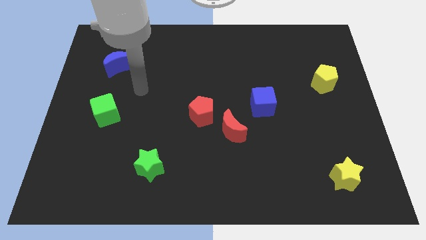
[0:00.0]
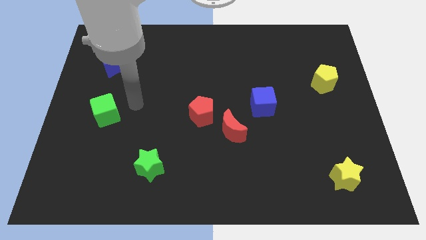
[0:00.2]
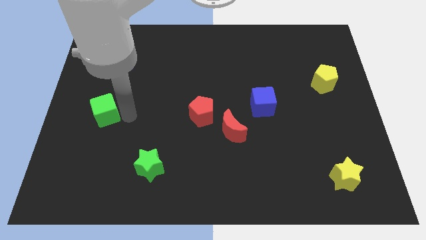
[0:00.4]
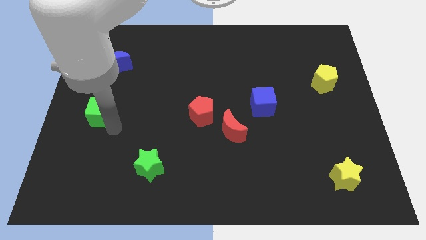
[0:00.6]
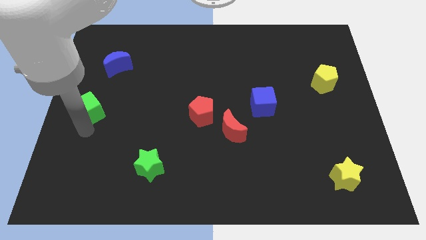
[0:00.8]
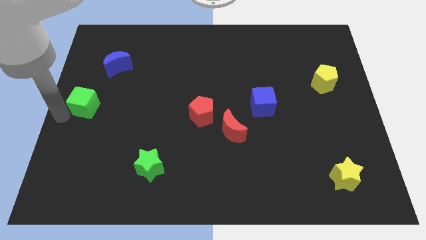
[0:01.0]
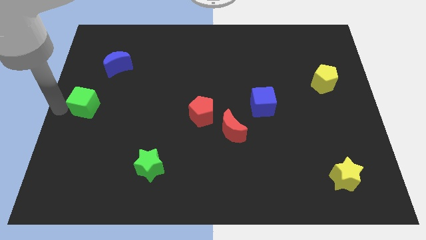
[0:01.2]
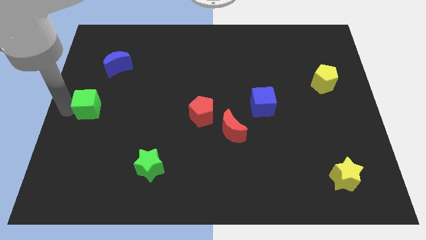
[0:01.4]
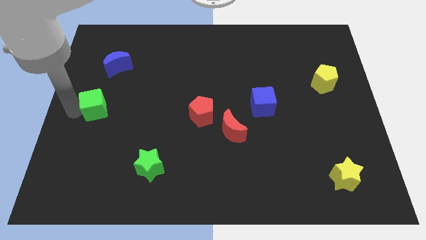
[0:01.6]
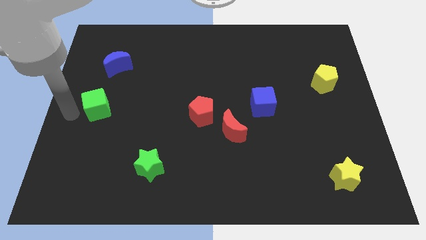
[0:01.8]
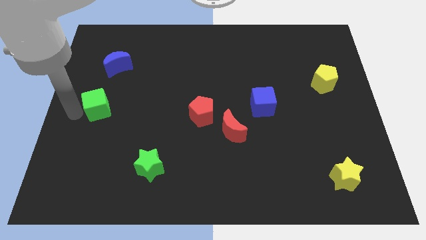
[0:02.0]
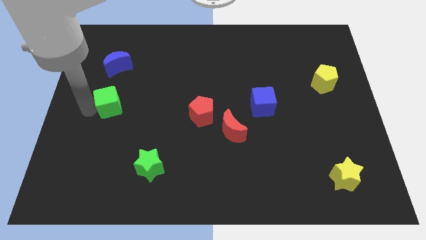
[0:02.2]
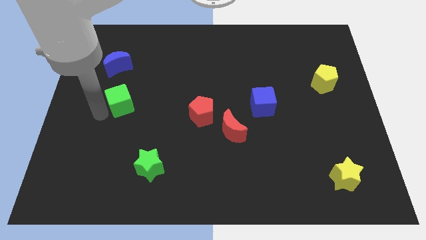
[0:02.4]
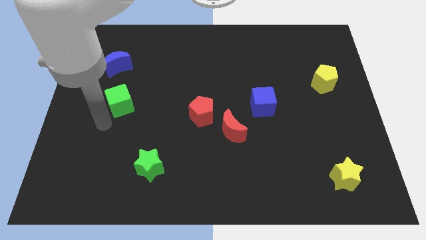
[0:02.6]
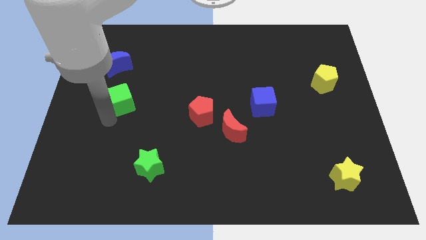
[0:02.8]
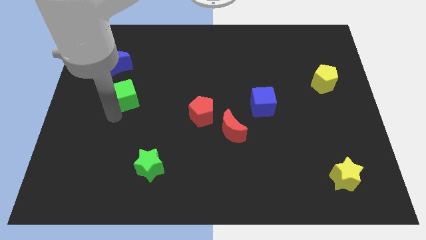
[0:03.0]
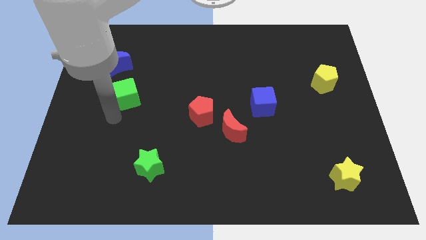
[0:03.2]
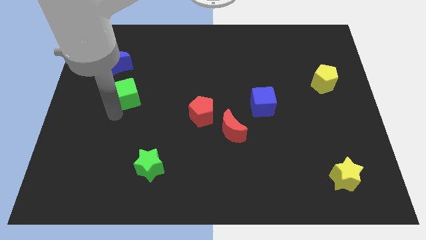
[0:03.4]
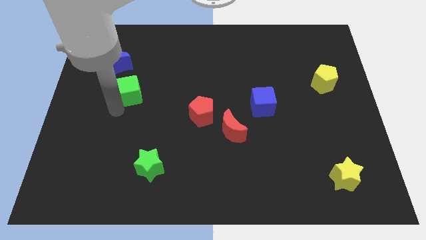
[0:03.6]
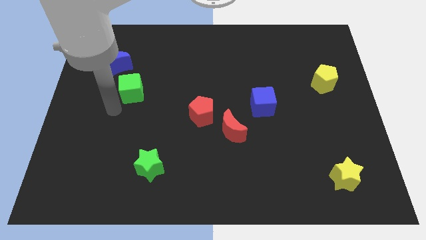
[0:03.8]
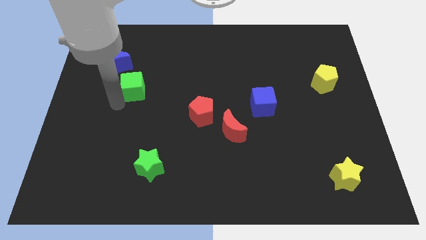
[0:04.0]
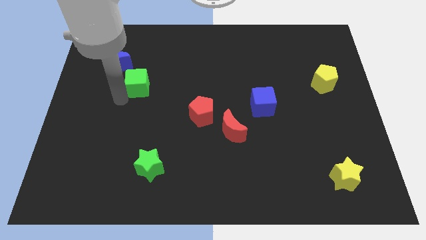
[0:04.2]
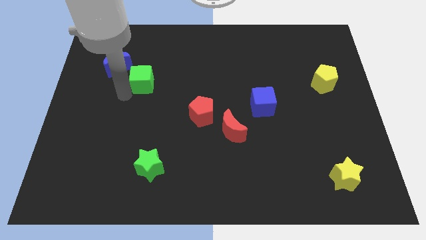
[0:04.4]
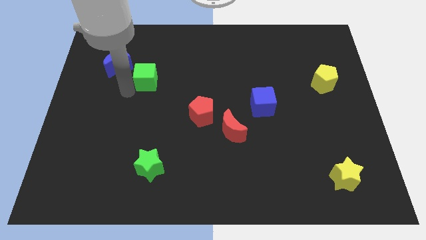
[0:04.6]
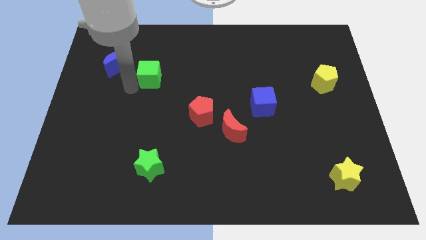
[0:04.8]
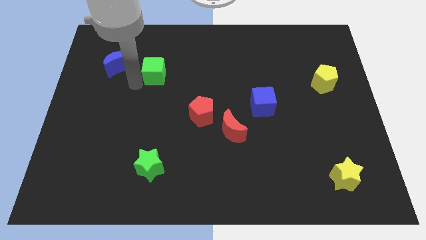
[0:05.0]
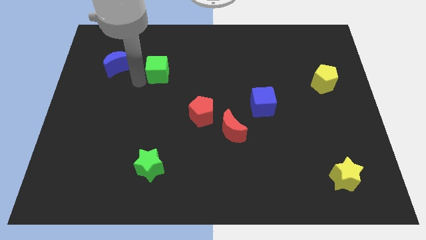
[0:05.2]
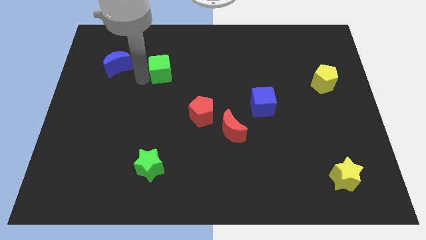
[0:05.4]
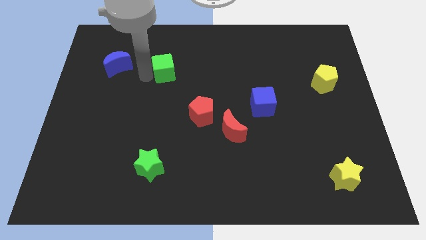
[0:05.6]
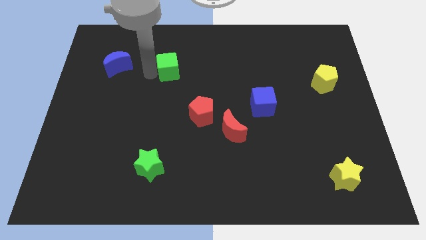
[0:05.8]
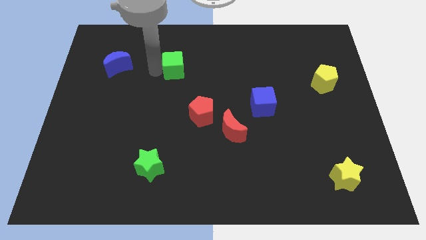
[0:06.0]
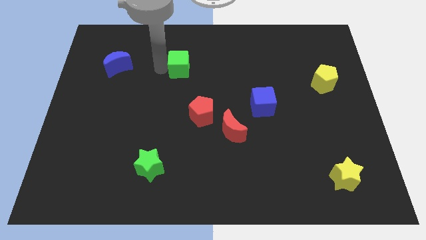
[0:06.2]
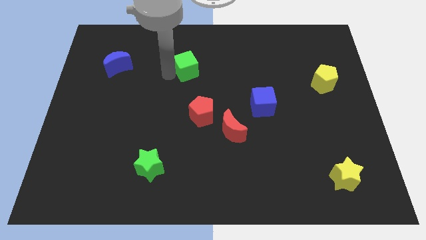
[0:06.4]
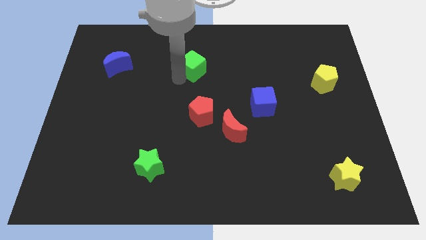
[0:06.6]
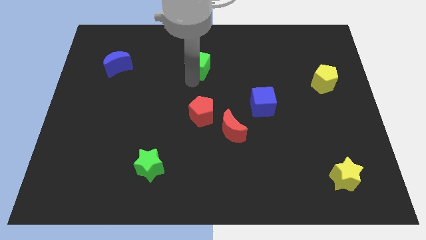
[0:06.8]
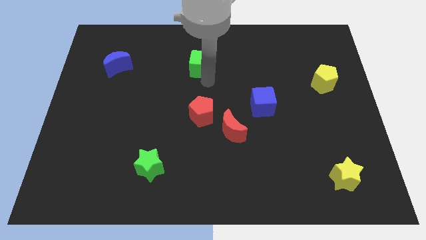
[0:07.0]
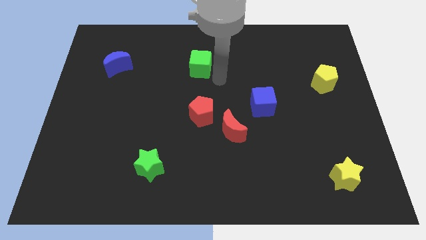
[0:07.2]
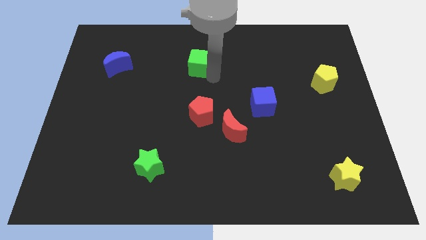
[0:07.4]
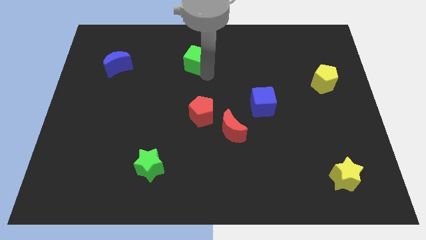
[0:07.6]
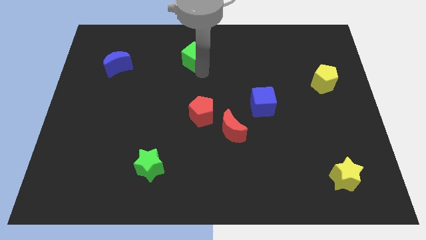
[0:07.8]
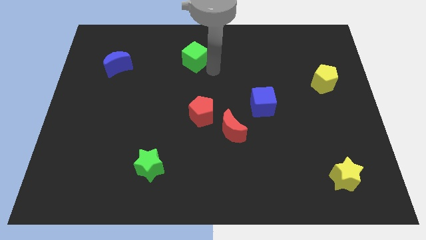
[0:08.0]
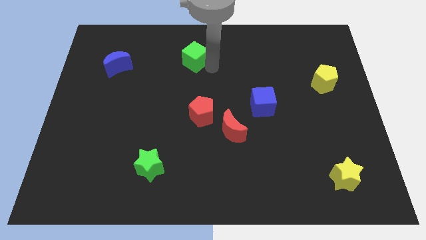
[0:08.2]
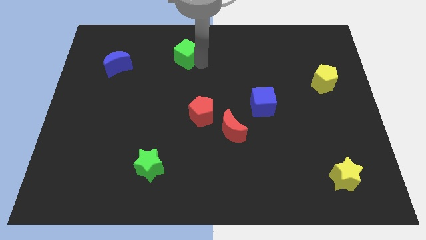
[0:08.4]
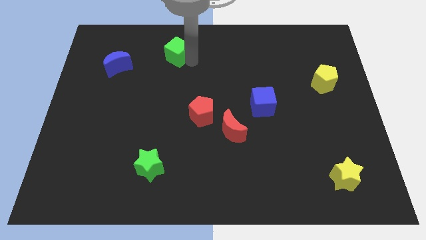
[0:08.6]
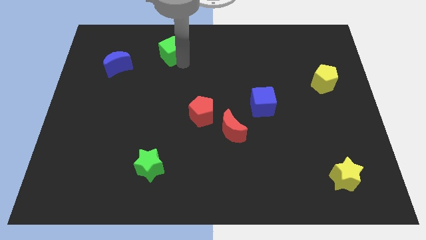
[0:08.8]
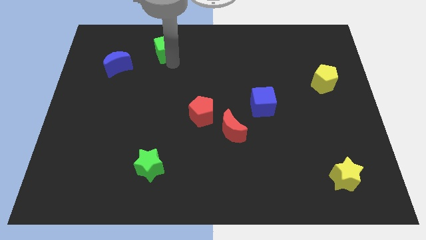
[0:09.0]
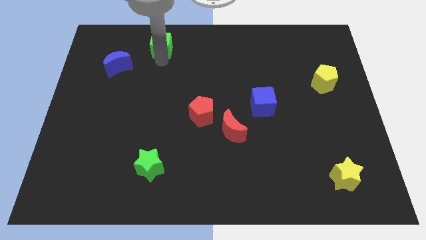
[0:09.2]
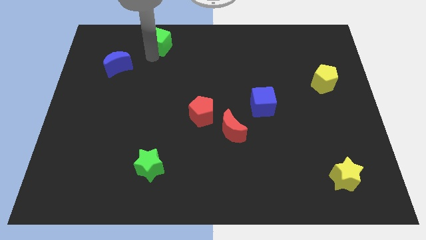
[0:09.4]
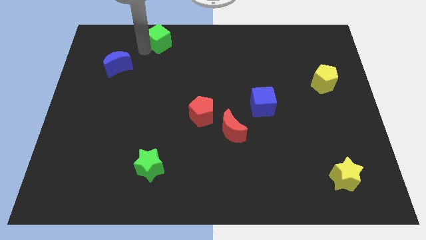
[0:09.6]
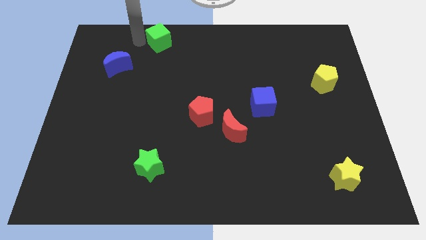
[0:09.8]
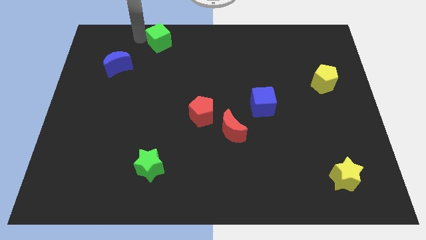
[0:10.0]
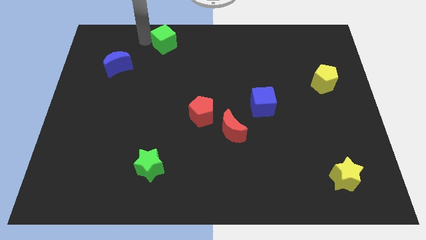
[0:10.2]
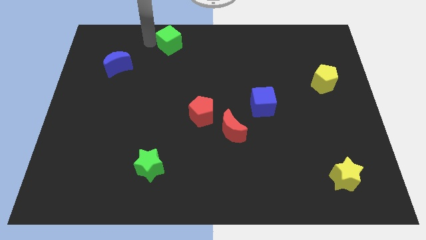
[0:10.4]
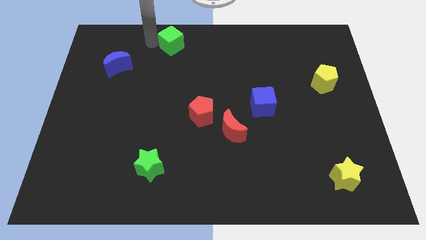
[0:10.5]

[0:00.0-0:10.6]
move the green cube to the top side

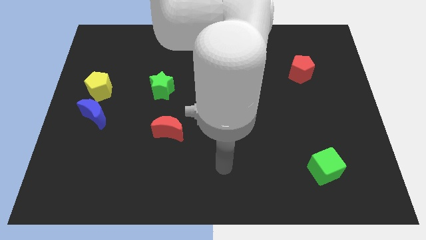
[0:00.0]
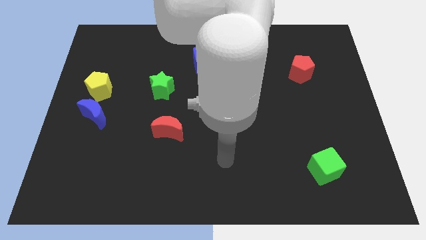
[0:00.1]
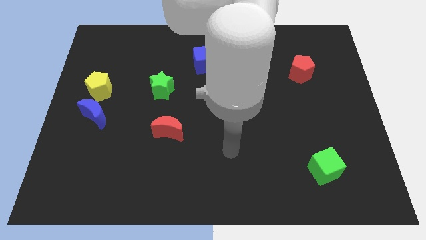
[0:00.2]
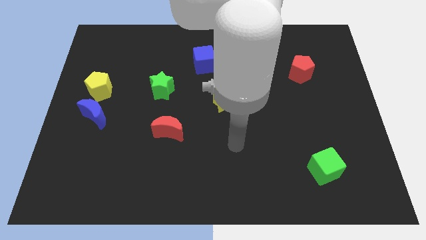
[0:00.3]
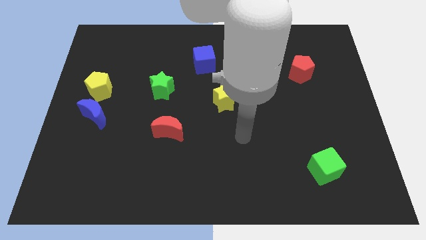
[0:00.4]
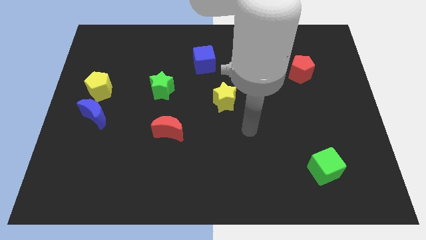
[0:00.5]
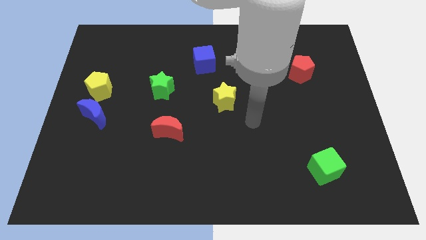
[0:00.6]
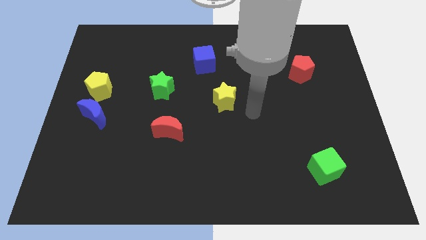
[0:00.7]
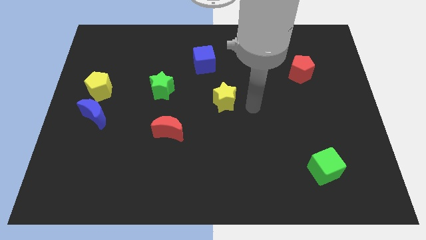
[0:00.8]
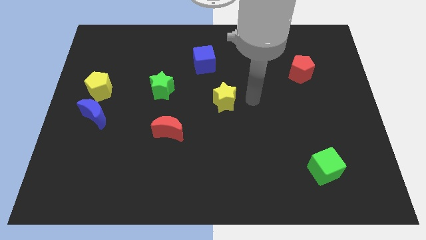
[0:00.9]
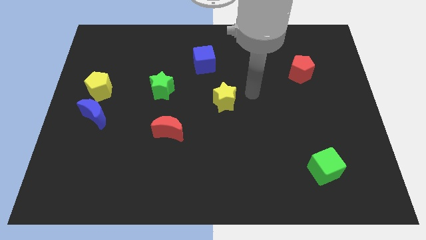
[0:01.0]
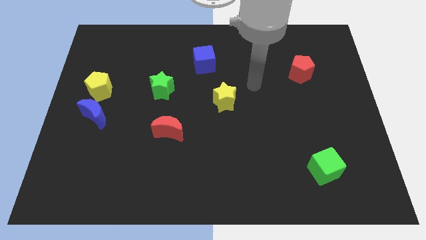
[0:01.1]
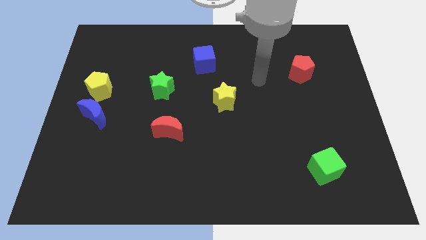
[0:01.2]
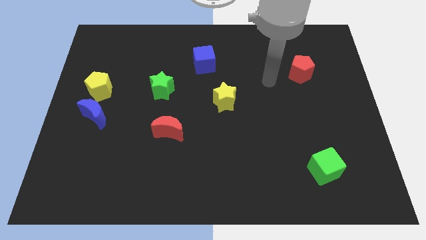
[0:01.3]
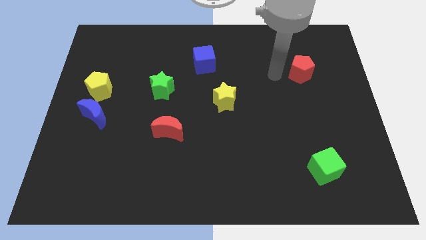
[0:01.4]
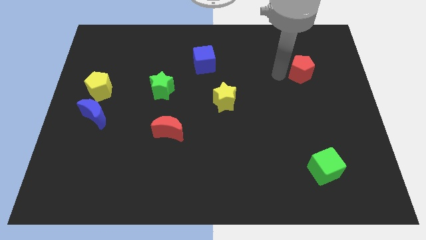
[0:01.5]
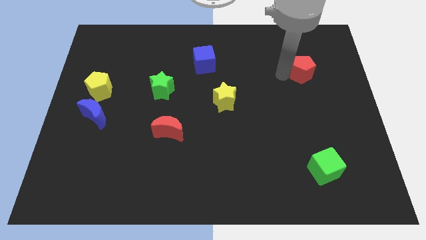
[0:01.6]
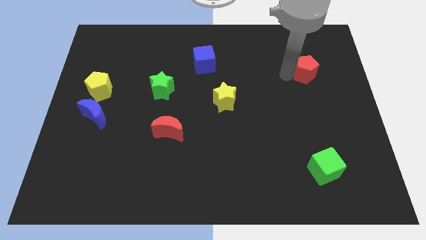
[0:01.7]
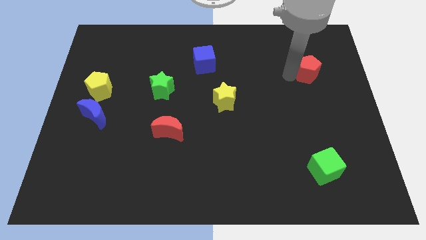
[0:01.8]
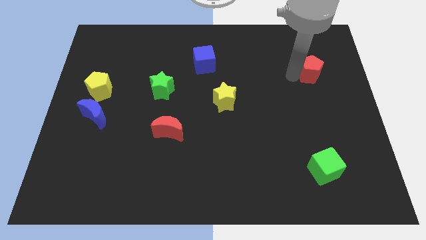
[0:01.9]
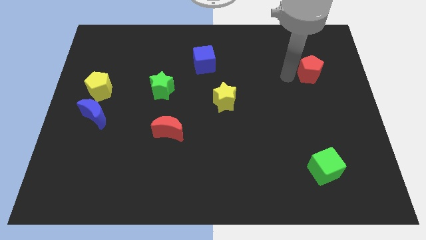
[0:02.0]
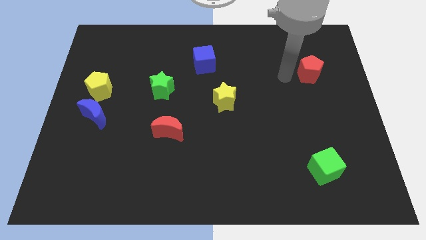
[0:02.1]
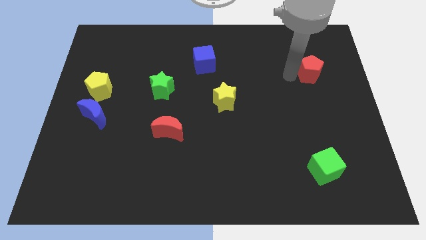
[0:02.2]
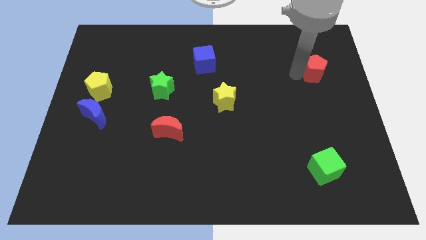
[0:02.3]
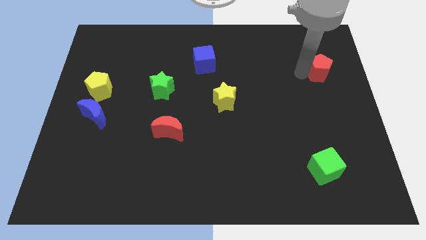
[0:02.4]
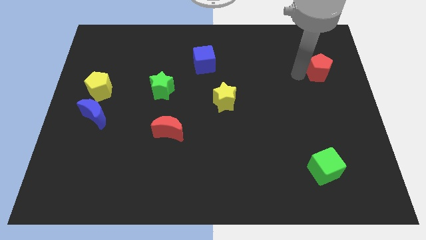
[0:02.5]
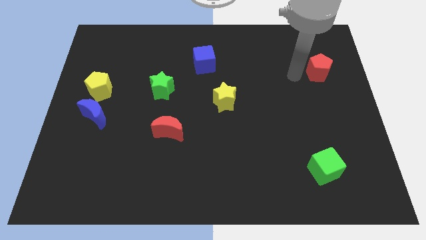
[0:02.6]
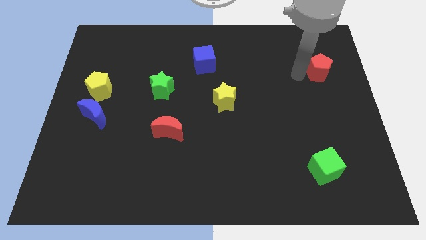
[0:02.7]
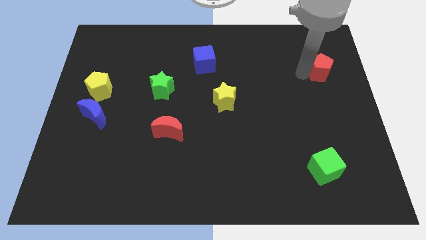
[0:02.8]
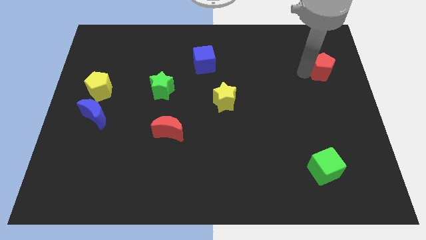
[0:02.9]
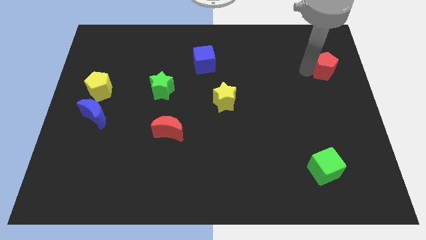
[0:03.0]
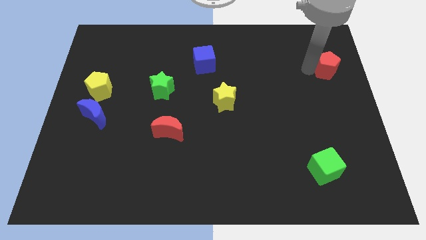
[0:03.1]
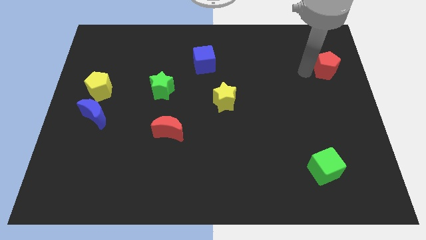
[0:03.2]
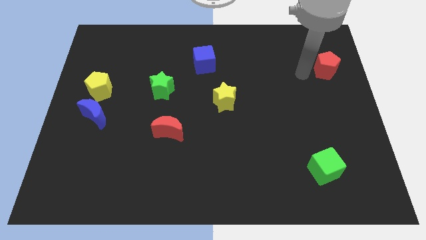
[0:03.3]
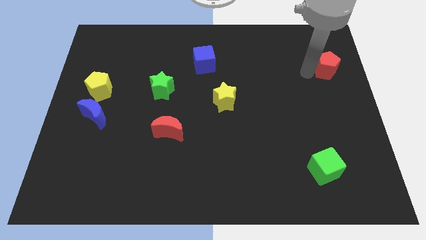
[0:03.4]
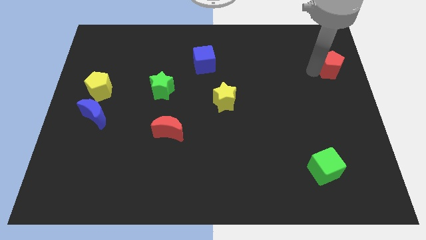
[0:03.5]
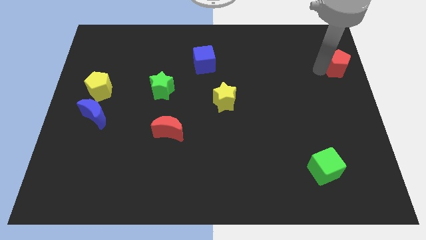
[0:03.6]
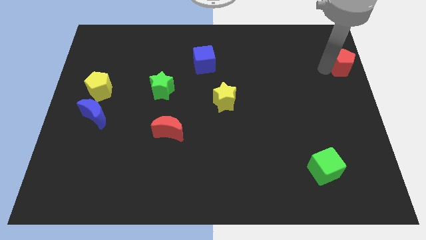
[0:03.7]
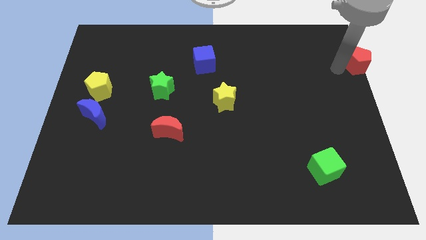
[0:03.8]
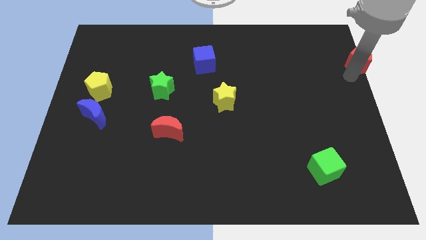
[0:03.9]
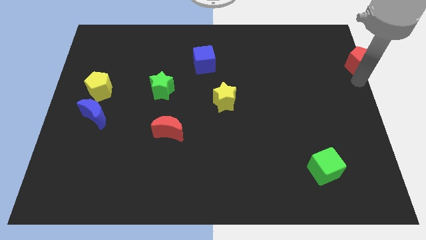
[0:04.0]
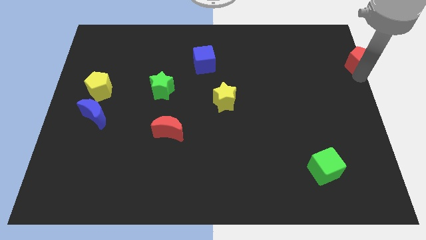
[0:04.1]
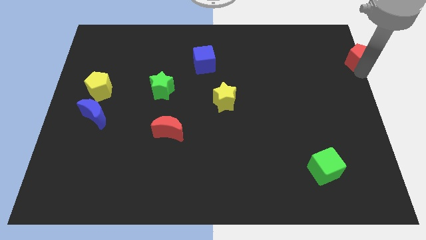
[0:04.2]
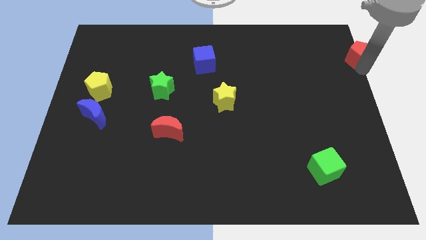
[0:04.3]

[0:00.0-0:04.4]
move the red pentagon to the top right of the board
